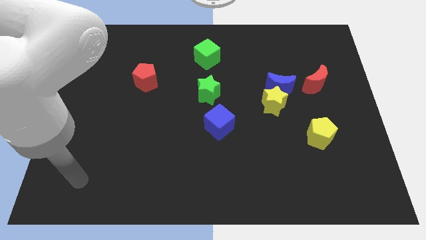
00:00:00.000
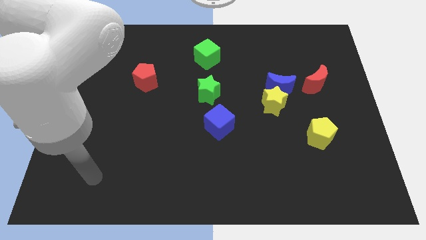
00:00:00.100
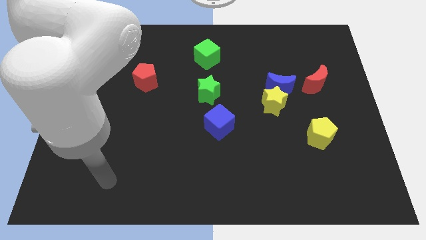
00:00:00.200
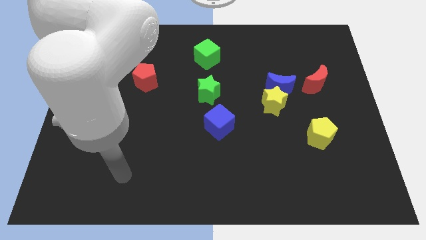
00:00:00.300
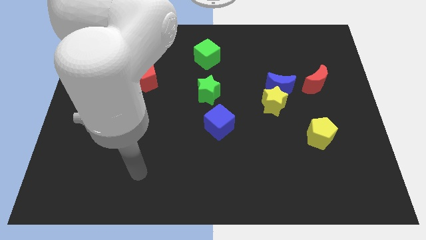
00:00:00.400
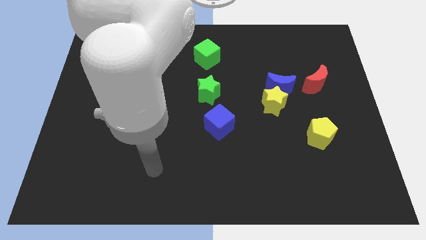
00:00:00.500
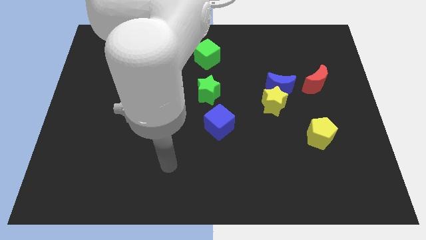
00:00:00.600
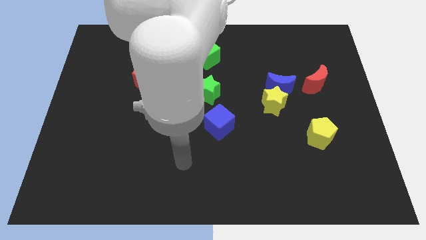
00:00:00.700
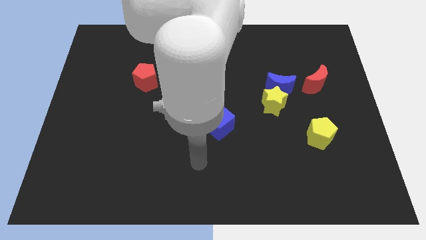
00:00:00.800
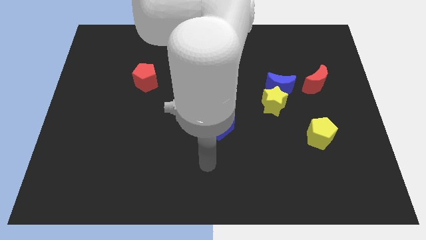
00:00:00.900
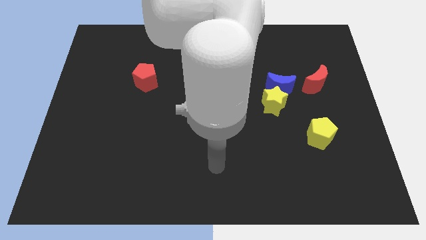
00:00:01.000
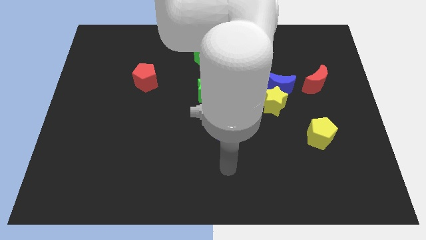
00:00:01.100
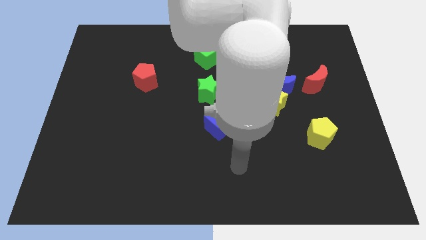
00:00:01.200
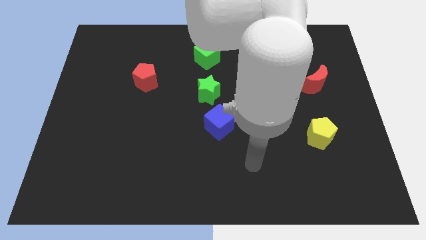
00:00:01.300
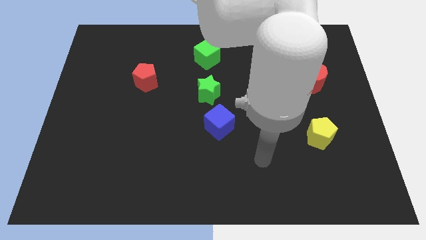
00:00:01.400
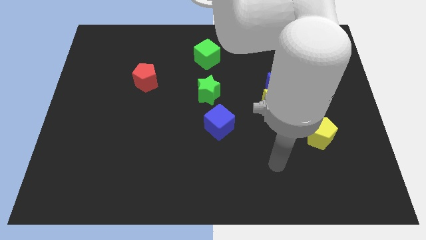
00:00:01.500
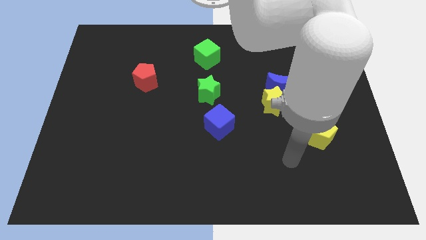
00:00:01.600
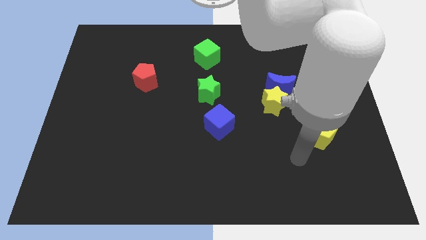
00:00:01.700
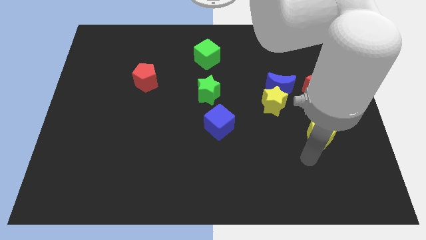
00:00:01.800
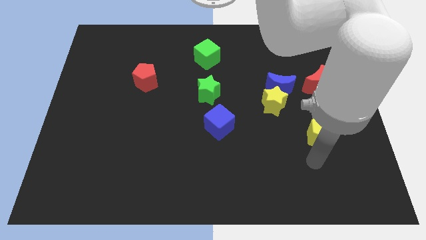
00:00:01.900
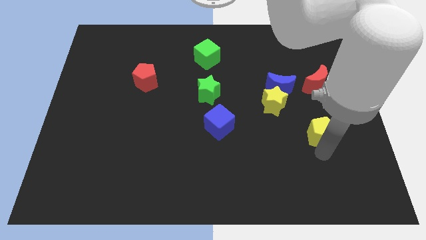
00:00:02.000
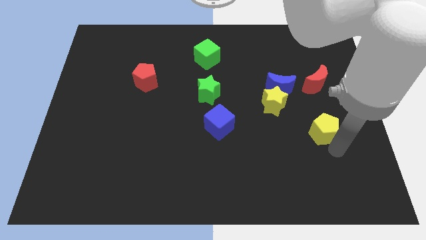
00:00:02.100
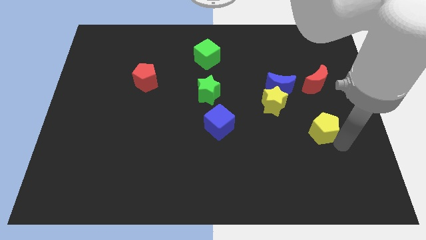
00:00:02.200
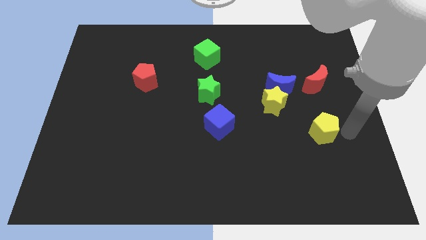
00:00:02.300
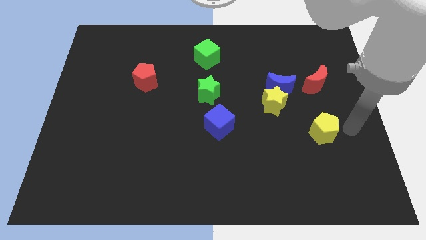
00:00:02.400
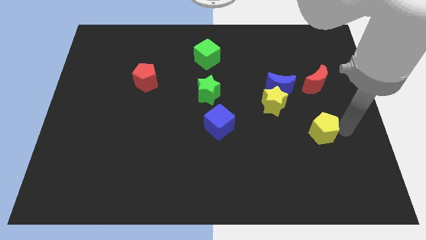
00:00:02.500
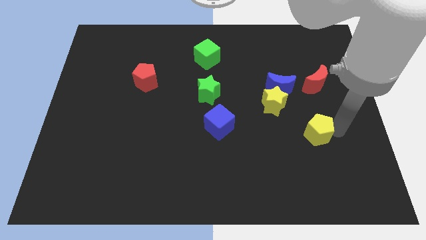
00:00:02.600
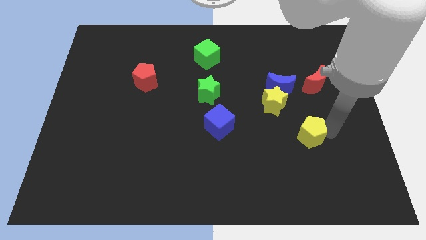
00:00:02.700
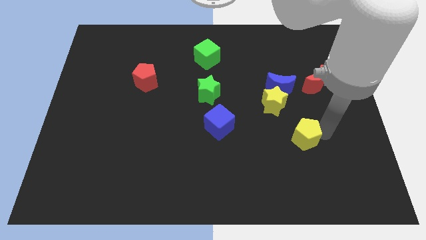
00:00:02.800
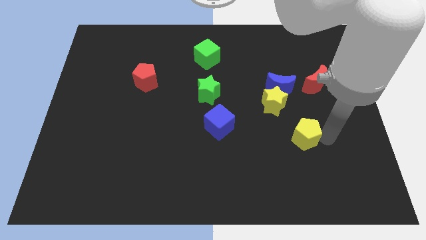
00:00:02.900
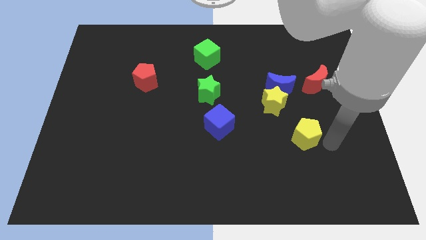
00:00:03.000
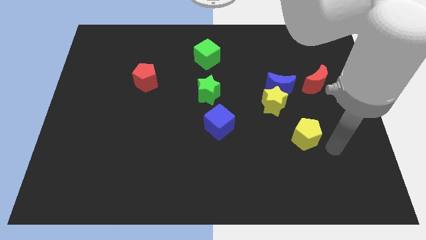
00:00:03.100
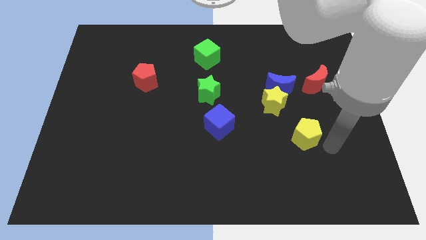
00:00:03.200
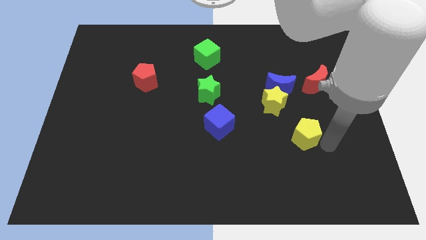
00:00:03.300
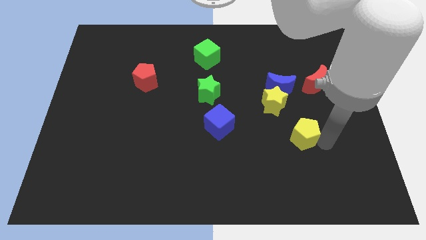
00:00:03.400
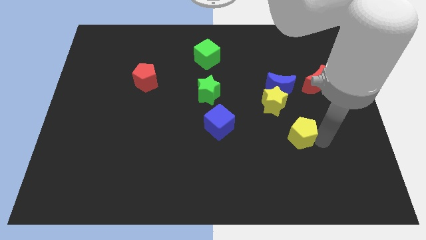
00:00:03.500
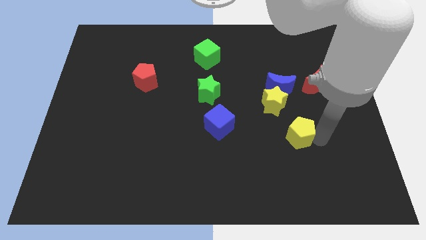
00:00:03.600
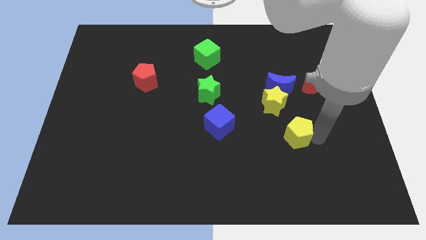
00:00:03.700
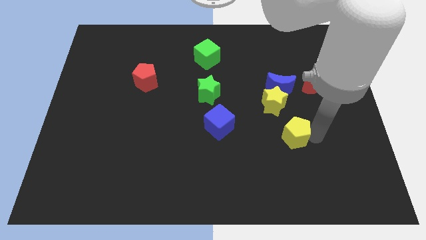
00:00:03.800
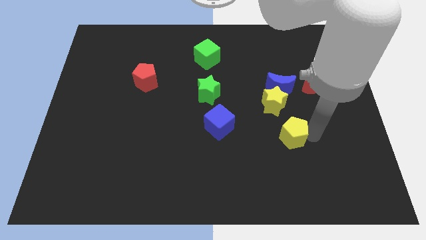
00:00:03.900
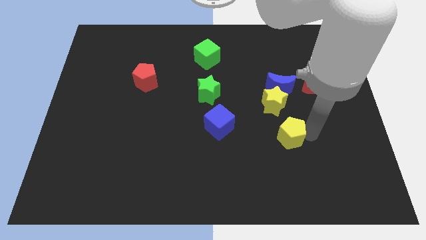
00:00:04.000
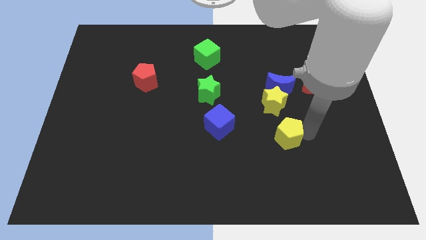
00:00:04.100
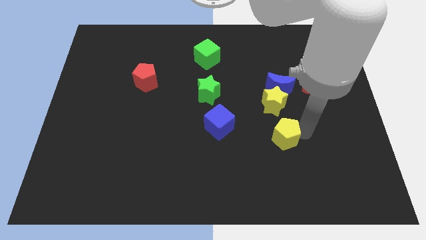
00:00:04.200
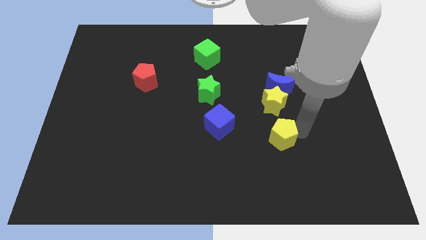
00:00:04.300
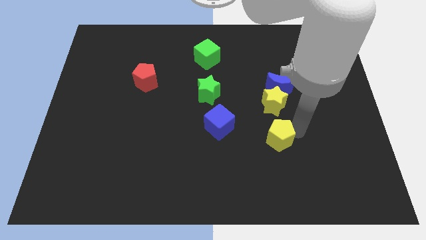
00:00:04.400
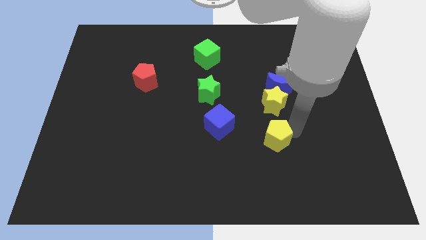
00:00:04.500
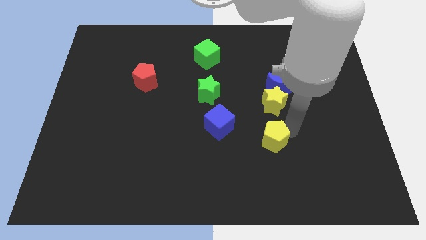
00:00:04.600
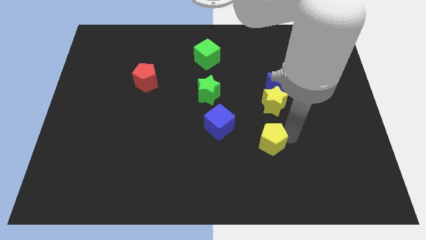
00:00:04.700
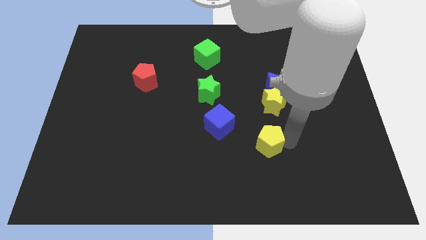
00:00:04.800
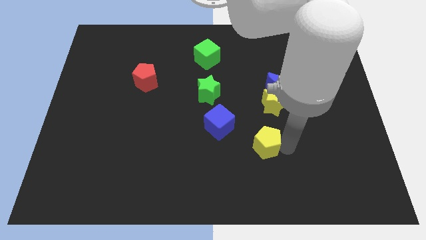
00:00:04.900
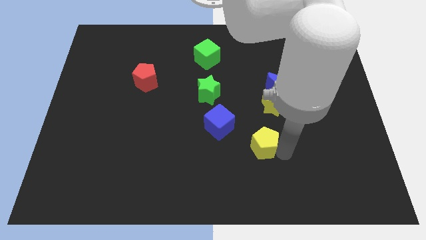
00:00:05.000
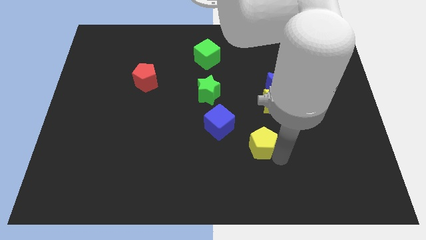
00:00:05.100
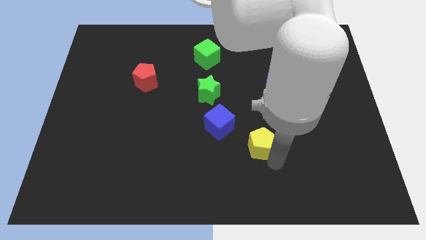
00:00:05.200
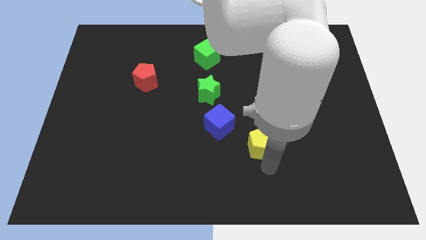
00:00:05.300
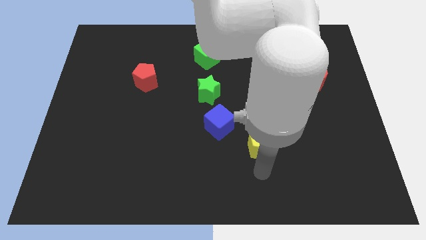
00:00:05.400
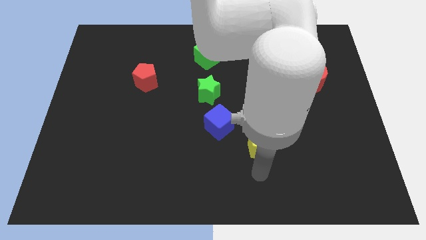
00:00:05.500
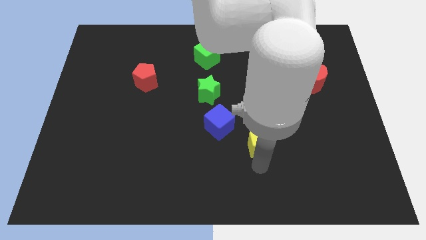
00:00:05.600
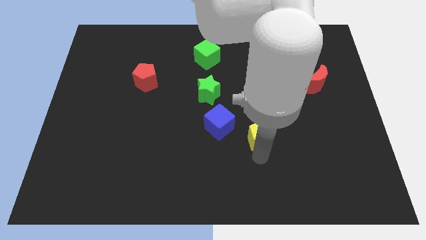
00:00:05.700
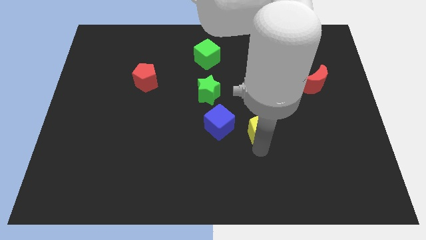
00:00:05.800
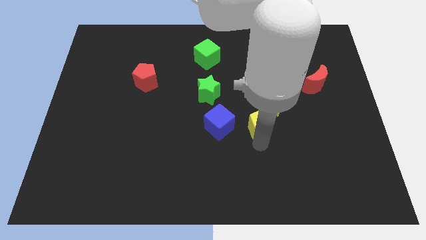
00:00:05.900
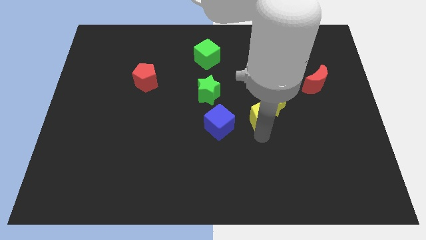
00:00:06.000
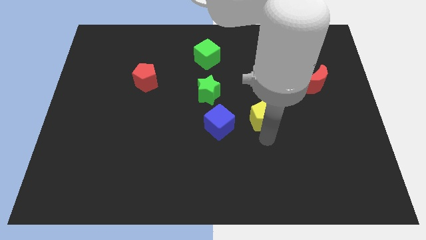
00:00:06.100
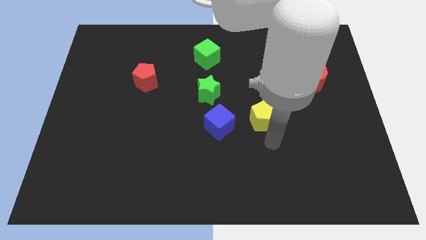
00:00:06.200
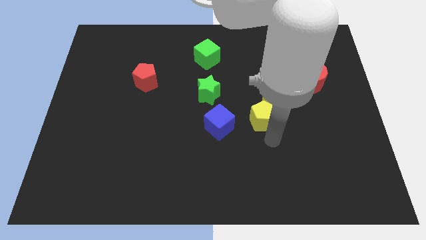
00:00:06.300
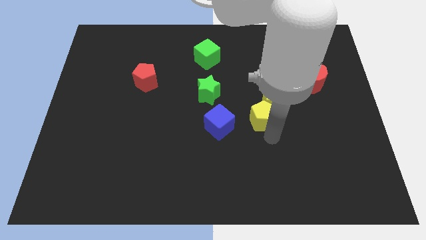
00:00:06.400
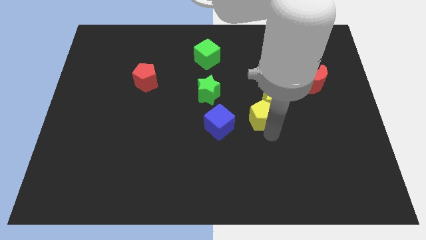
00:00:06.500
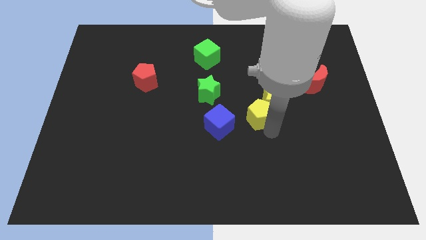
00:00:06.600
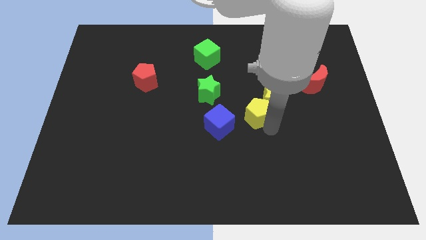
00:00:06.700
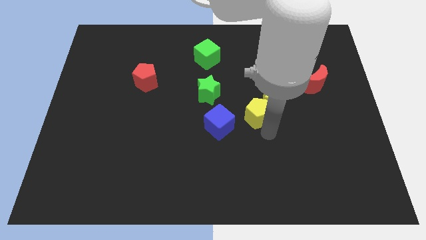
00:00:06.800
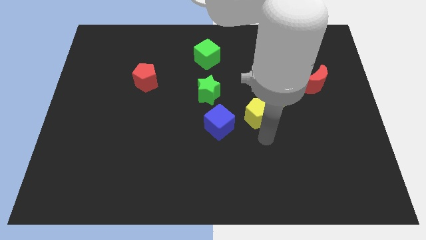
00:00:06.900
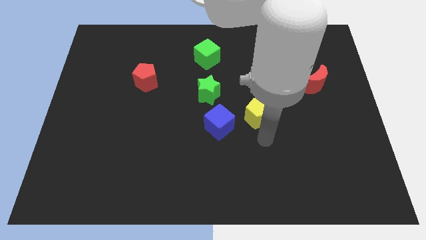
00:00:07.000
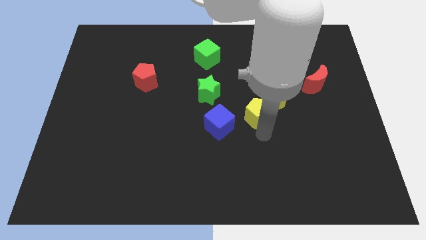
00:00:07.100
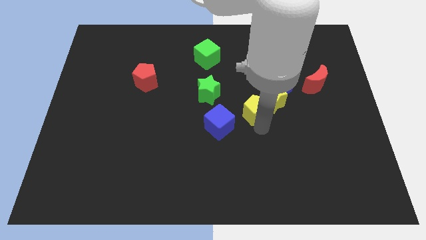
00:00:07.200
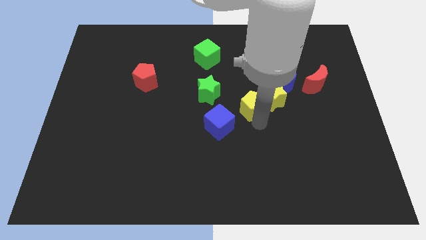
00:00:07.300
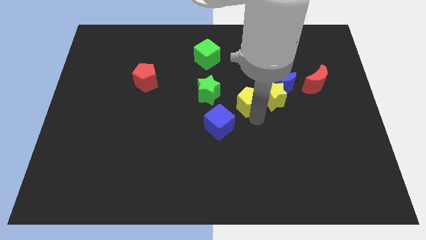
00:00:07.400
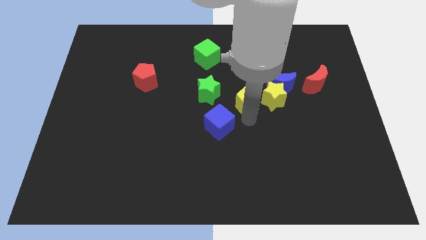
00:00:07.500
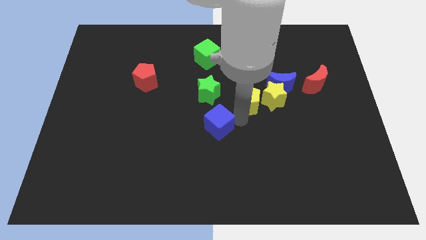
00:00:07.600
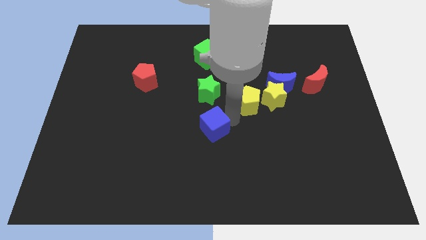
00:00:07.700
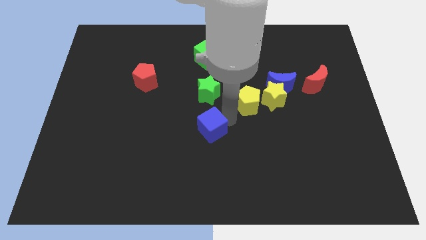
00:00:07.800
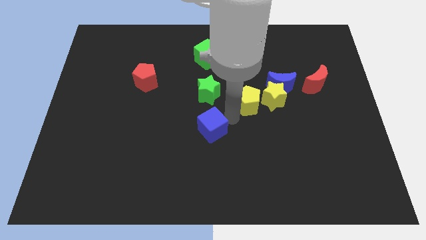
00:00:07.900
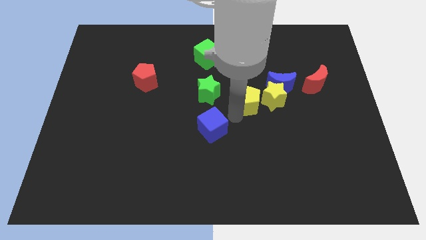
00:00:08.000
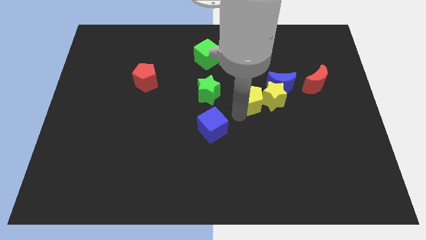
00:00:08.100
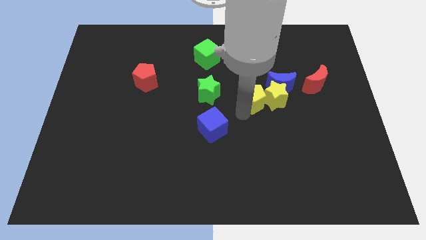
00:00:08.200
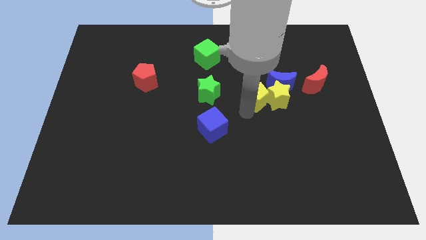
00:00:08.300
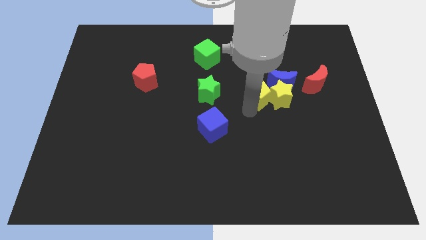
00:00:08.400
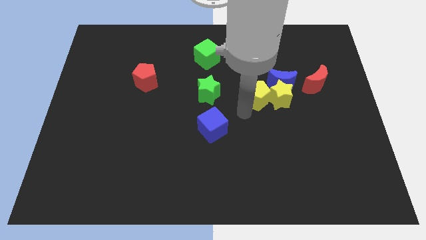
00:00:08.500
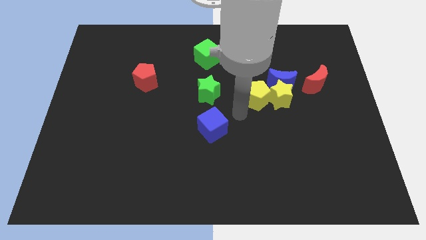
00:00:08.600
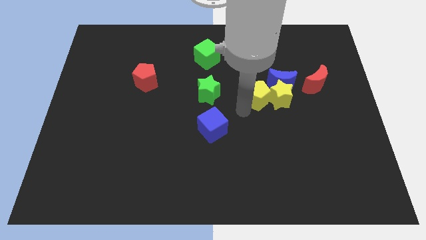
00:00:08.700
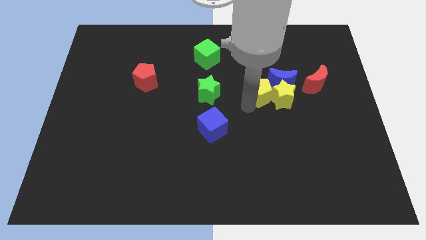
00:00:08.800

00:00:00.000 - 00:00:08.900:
push the yellow pentagon left of the red moon
